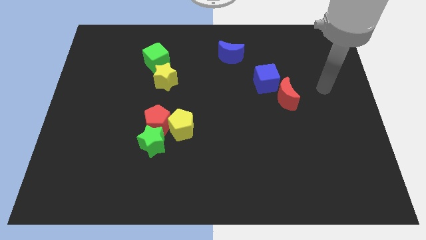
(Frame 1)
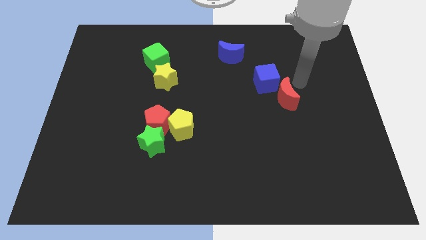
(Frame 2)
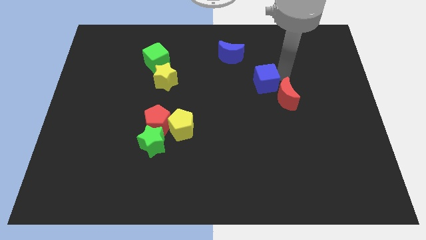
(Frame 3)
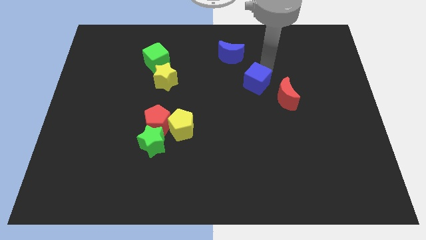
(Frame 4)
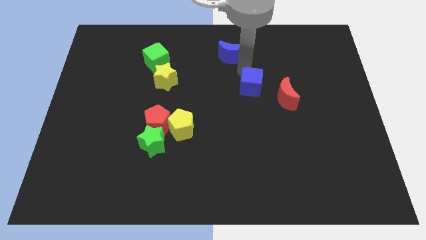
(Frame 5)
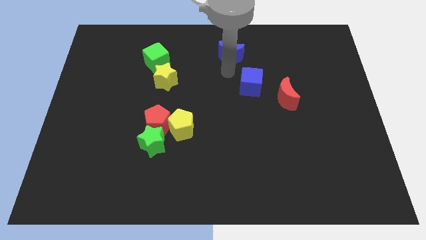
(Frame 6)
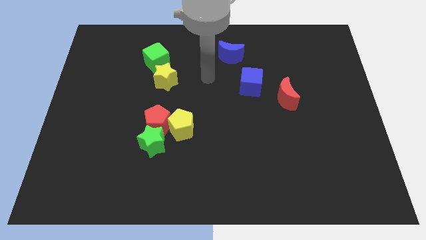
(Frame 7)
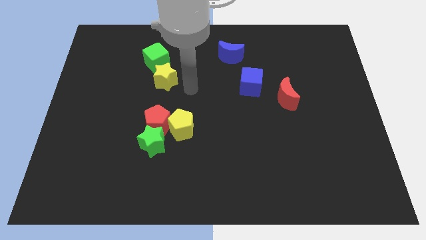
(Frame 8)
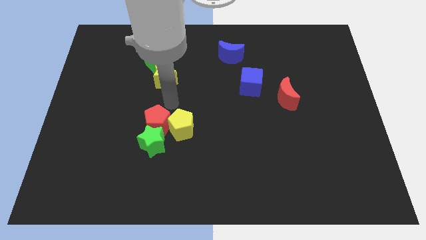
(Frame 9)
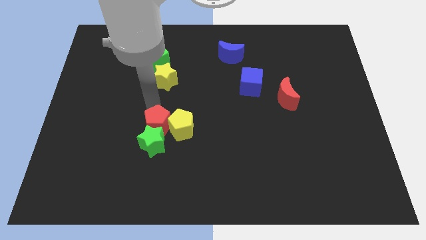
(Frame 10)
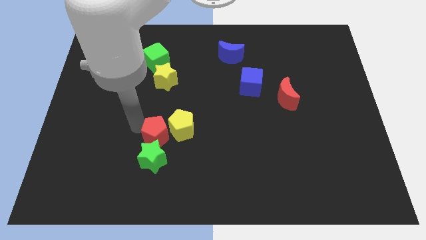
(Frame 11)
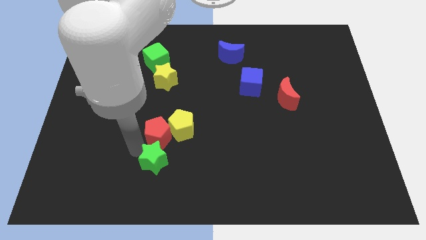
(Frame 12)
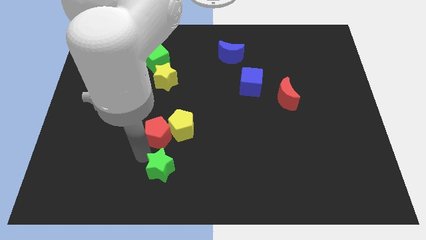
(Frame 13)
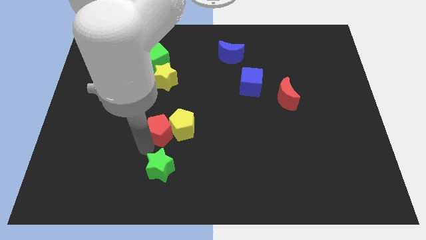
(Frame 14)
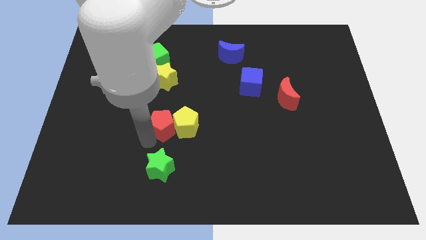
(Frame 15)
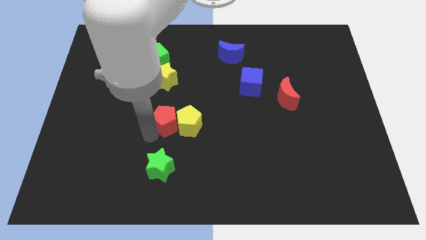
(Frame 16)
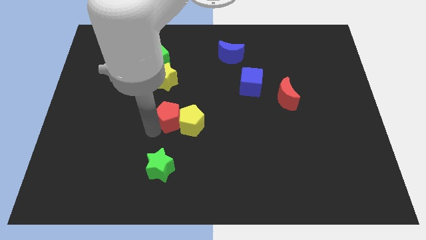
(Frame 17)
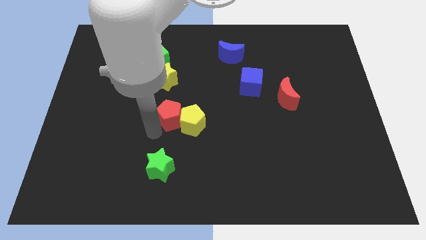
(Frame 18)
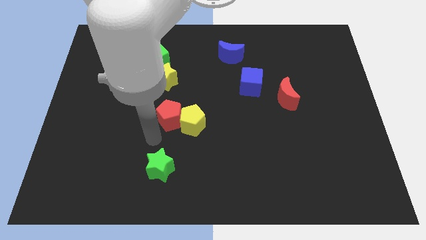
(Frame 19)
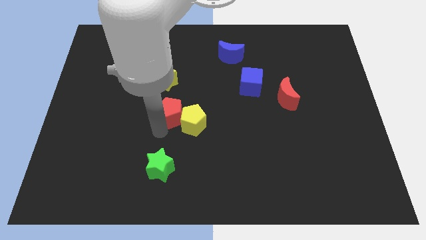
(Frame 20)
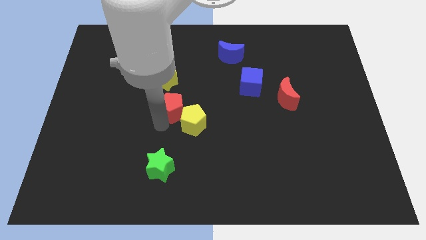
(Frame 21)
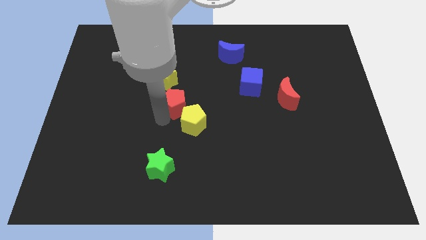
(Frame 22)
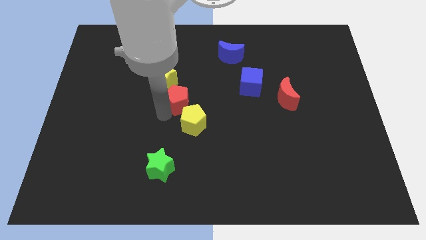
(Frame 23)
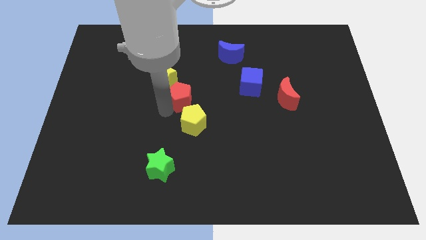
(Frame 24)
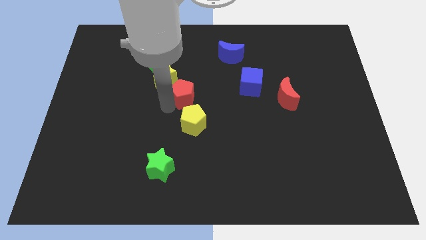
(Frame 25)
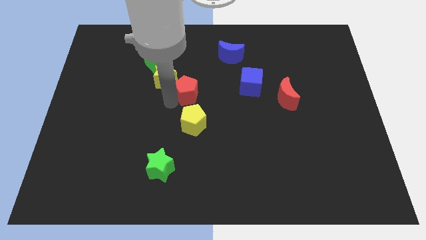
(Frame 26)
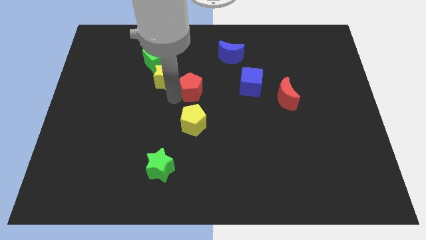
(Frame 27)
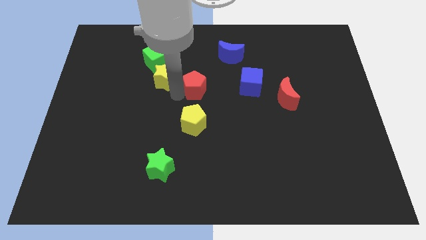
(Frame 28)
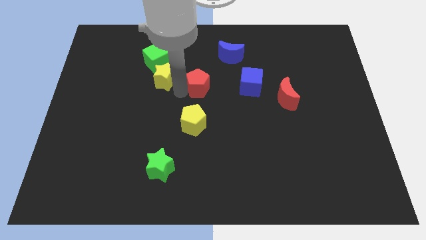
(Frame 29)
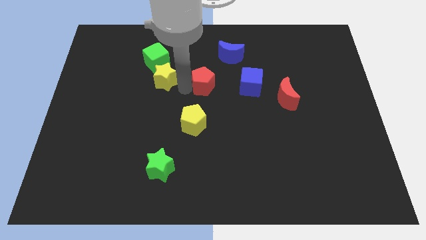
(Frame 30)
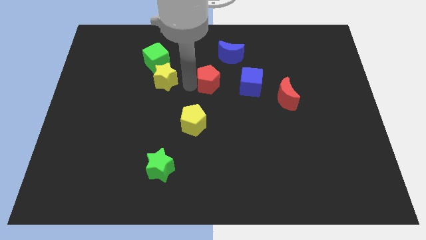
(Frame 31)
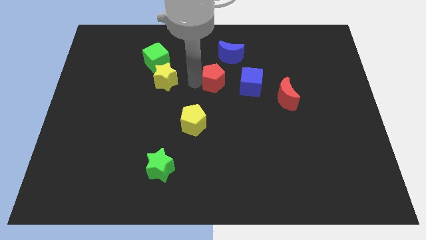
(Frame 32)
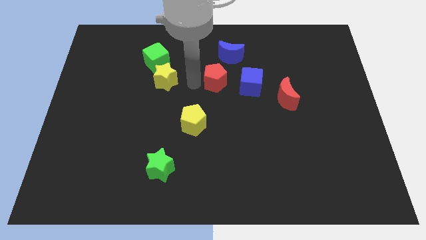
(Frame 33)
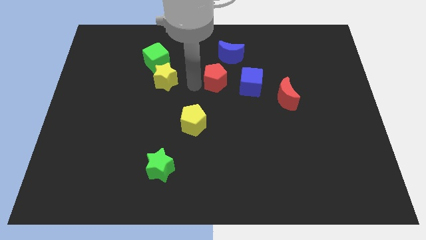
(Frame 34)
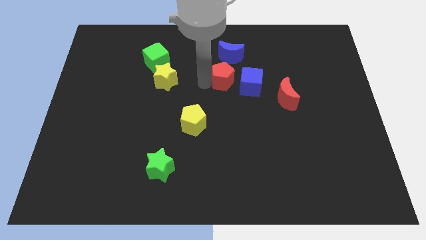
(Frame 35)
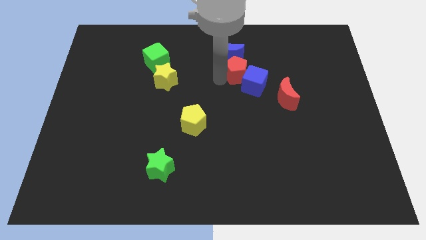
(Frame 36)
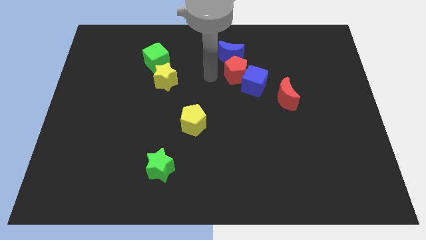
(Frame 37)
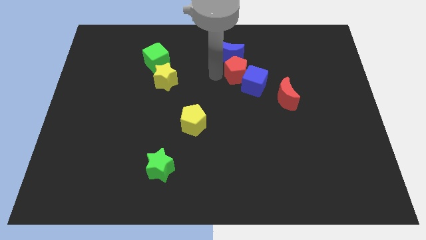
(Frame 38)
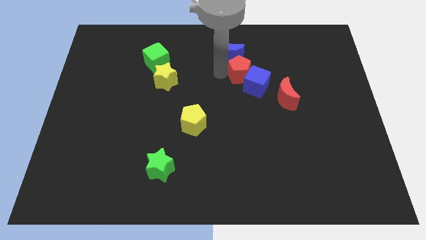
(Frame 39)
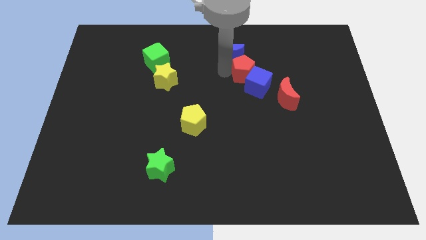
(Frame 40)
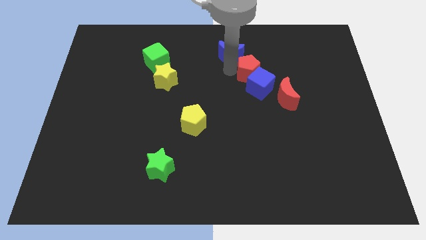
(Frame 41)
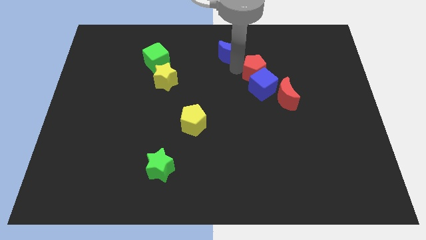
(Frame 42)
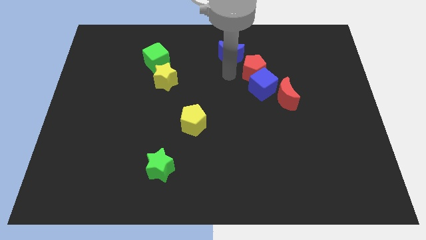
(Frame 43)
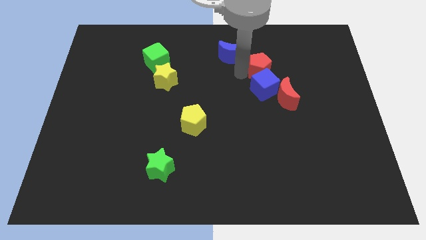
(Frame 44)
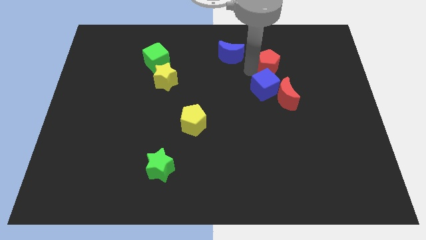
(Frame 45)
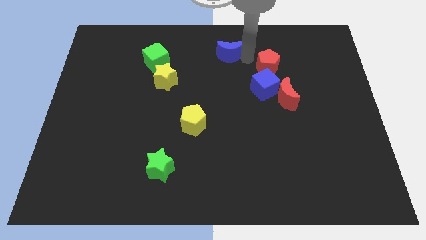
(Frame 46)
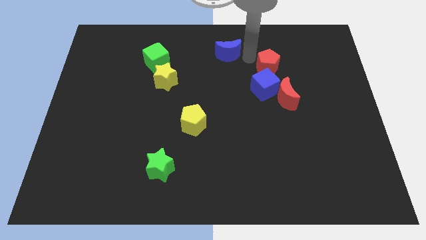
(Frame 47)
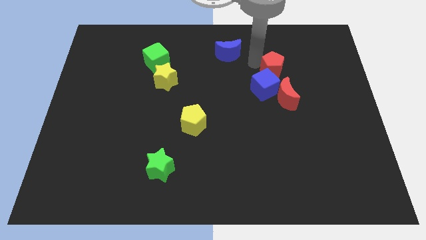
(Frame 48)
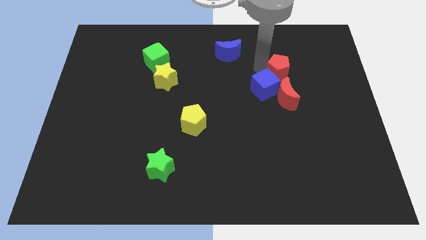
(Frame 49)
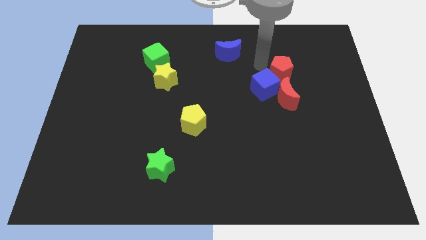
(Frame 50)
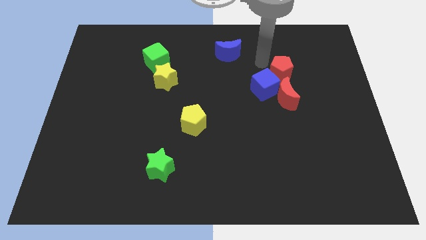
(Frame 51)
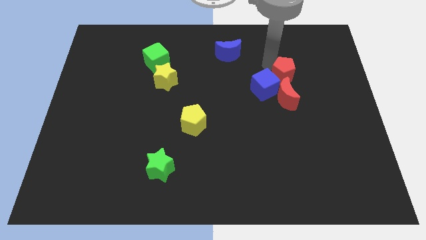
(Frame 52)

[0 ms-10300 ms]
slide the red pentagon to the right of the blue cube

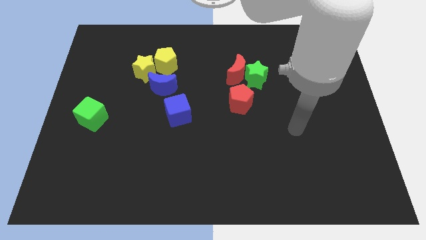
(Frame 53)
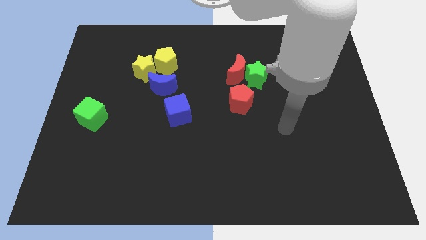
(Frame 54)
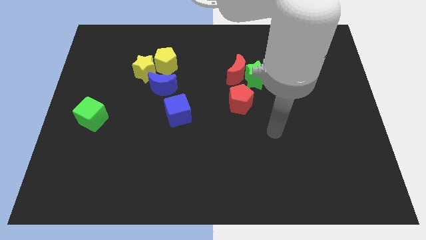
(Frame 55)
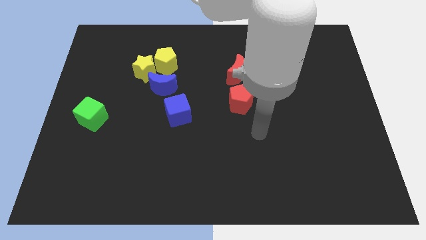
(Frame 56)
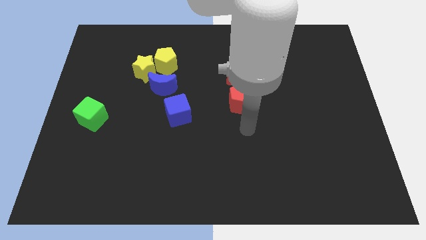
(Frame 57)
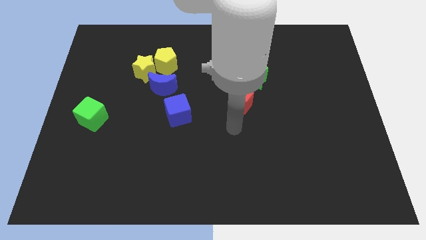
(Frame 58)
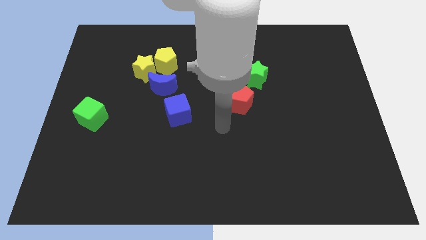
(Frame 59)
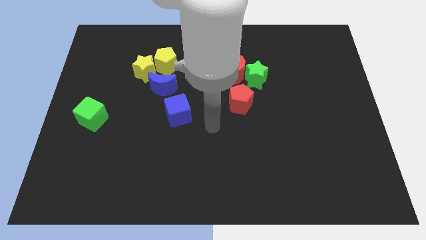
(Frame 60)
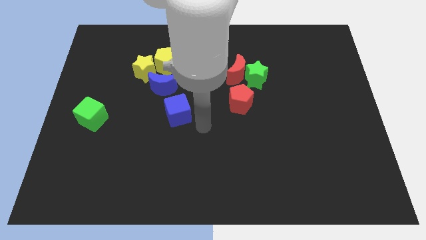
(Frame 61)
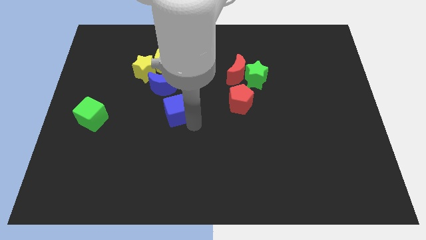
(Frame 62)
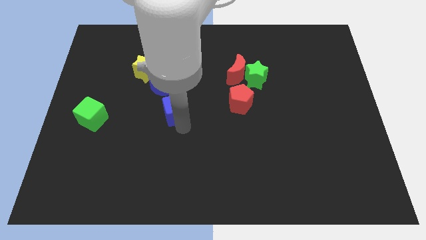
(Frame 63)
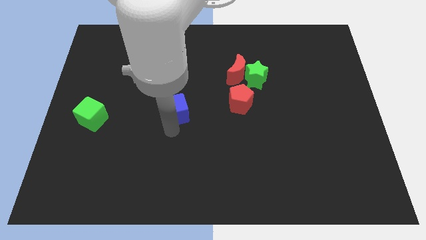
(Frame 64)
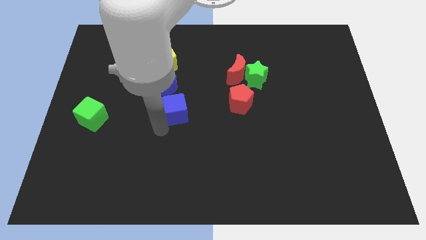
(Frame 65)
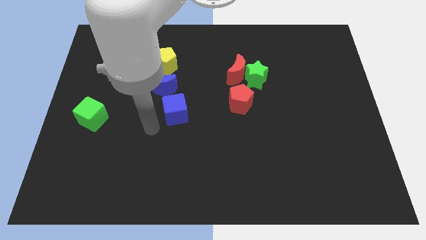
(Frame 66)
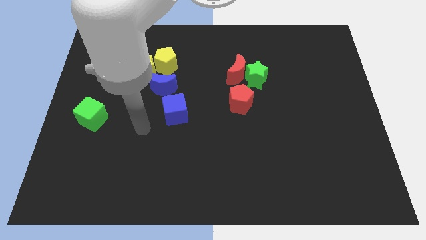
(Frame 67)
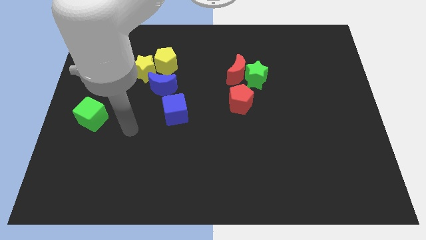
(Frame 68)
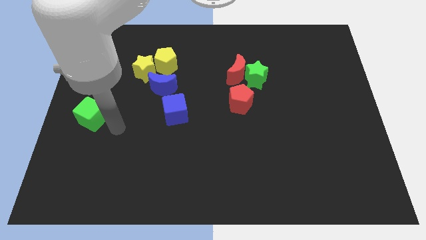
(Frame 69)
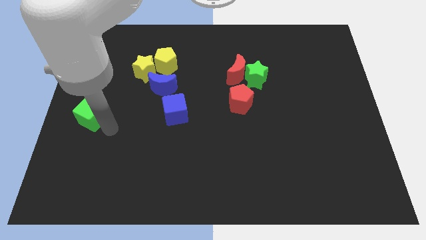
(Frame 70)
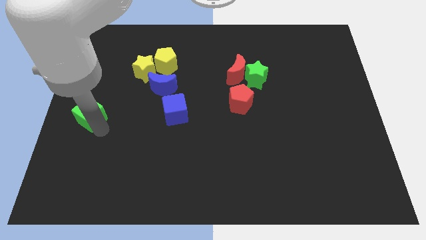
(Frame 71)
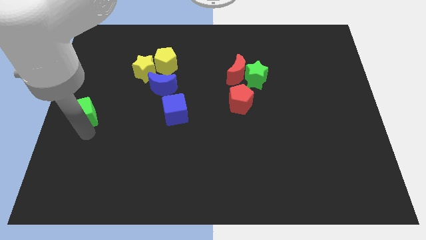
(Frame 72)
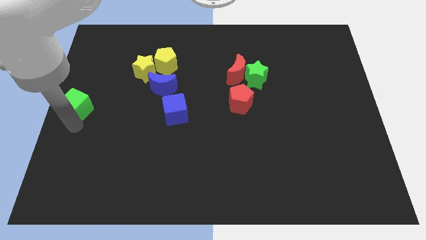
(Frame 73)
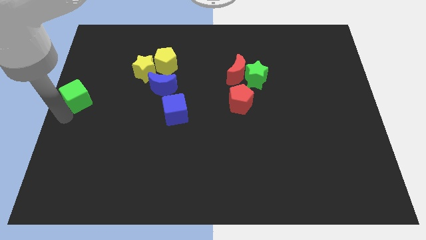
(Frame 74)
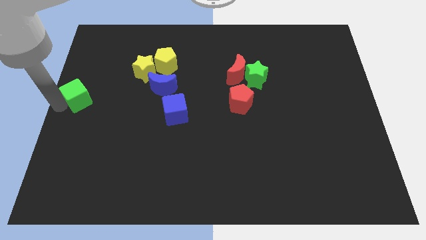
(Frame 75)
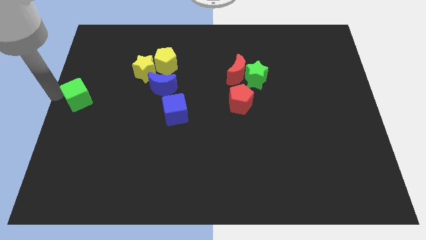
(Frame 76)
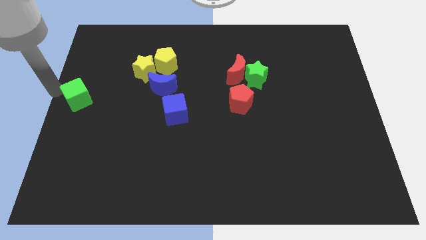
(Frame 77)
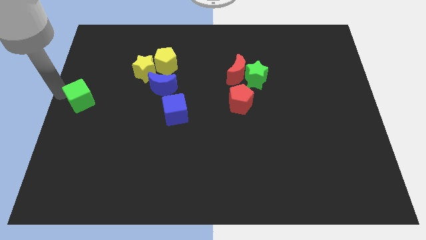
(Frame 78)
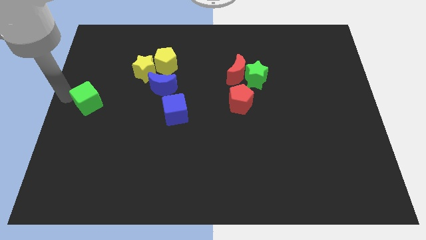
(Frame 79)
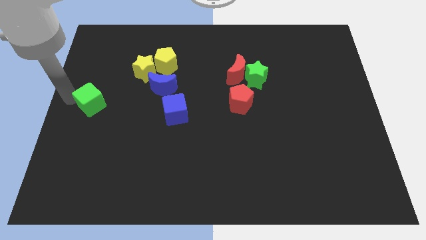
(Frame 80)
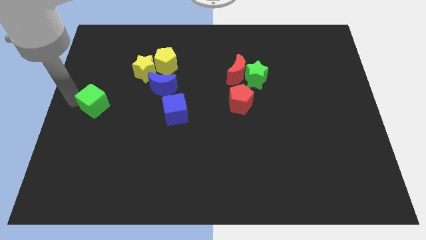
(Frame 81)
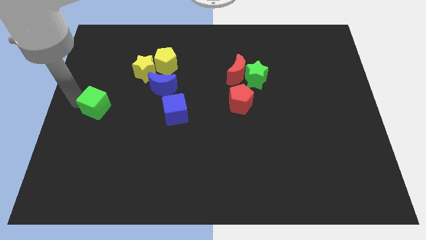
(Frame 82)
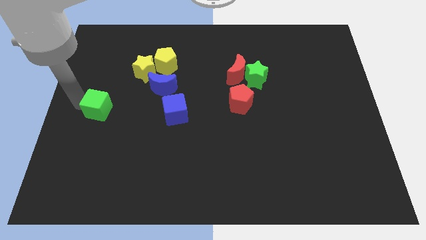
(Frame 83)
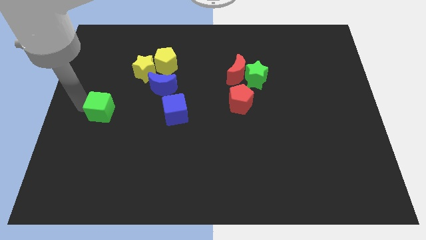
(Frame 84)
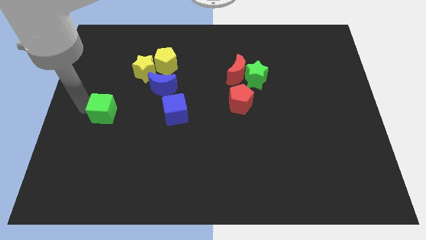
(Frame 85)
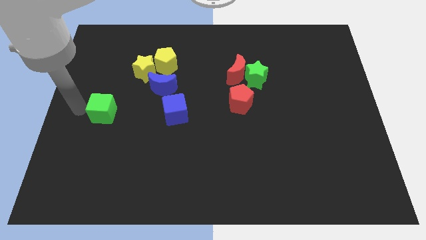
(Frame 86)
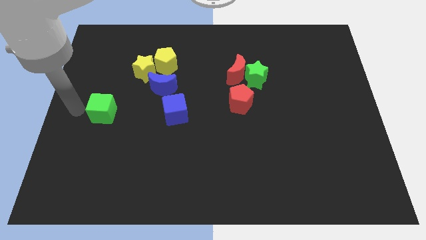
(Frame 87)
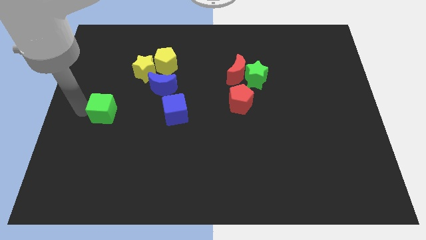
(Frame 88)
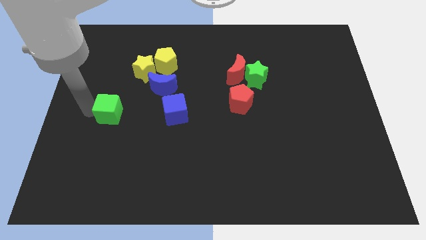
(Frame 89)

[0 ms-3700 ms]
put the green cube to the left of the blue cube
